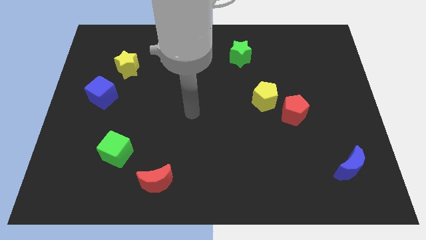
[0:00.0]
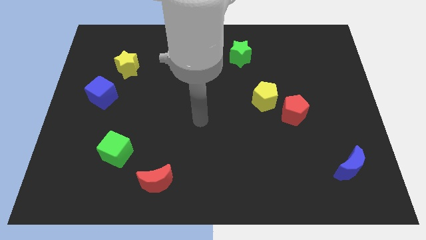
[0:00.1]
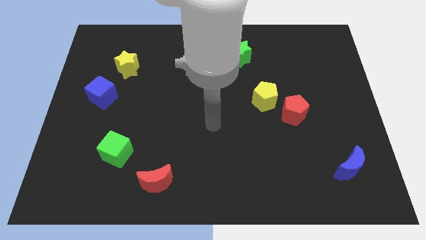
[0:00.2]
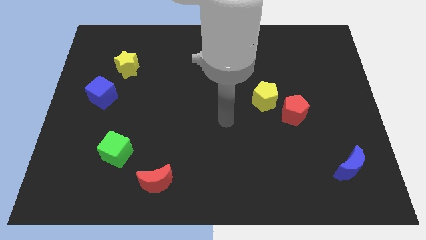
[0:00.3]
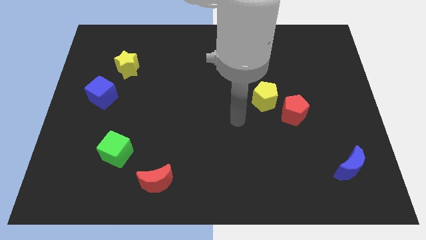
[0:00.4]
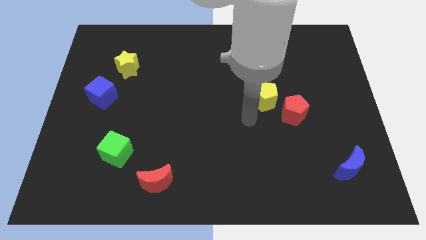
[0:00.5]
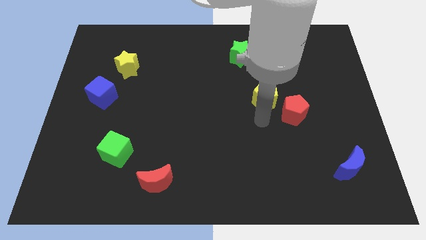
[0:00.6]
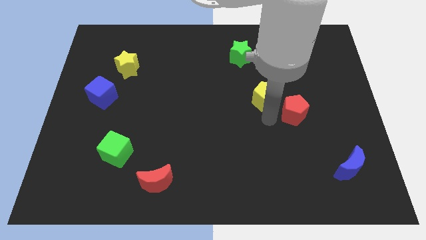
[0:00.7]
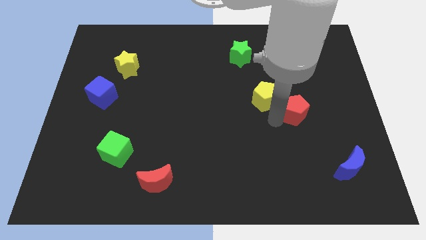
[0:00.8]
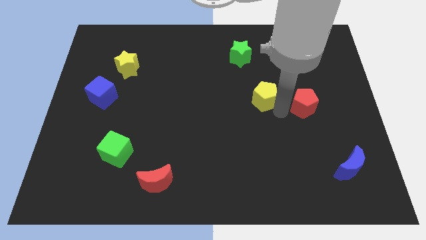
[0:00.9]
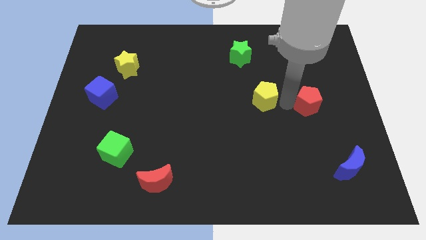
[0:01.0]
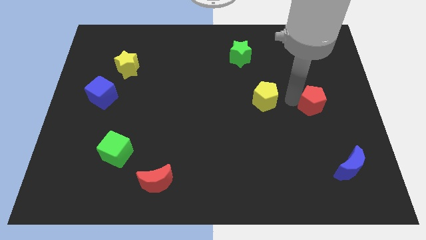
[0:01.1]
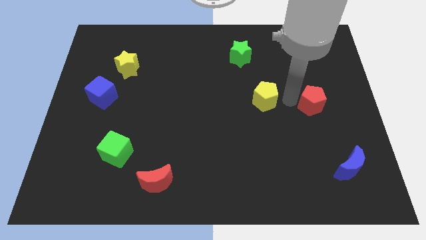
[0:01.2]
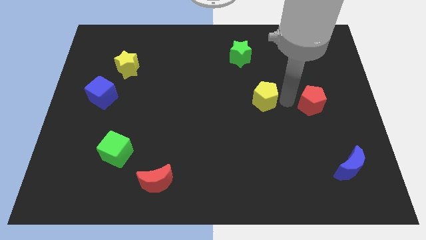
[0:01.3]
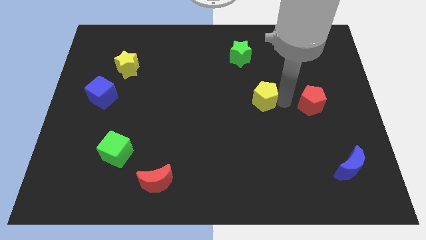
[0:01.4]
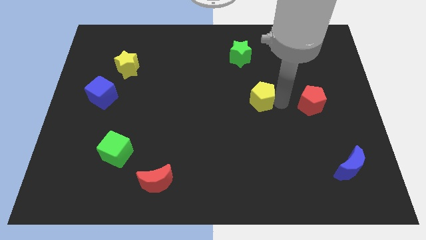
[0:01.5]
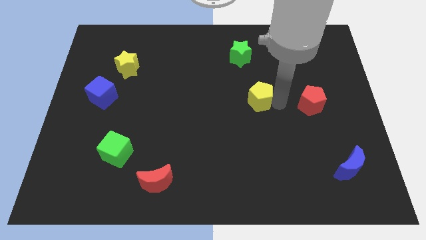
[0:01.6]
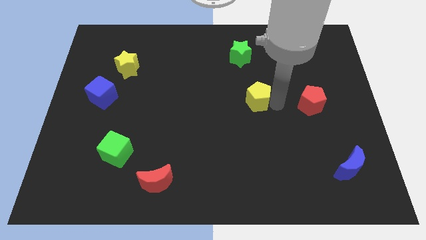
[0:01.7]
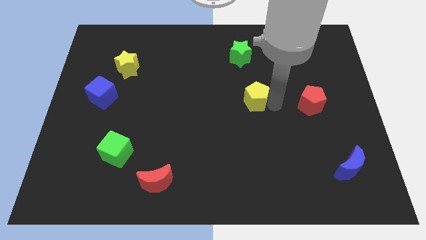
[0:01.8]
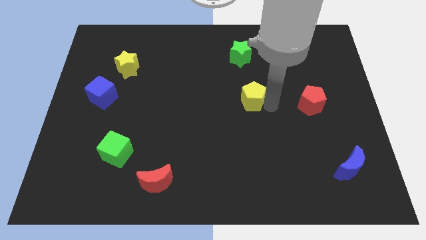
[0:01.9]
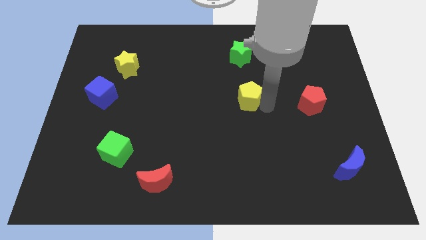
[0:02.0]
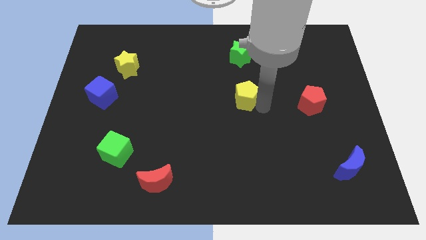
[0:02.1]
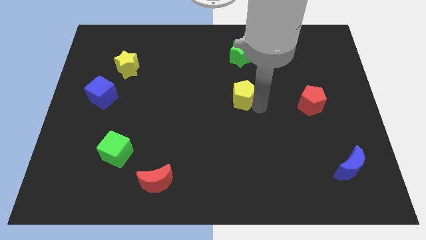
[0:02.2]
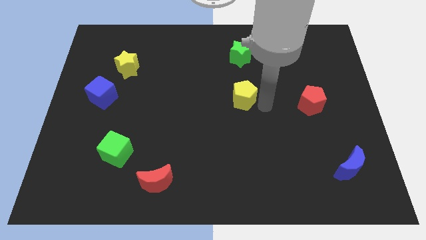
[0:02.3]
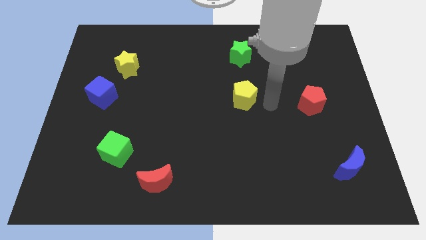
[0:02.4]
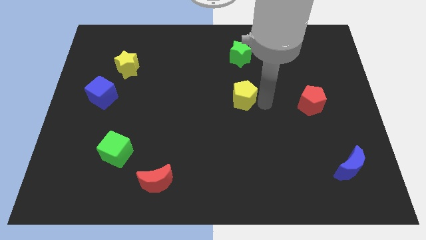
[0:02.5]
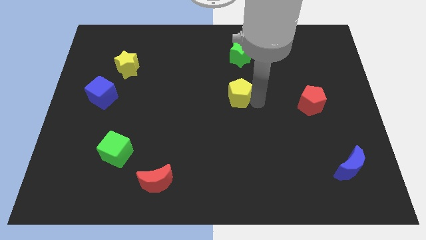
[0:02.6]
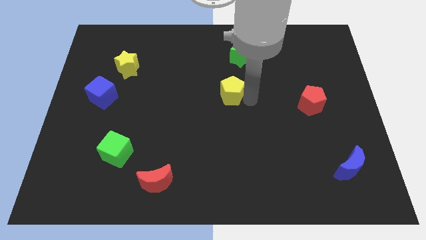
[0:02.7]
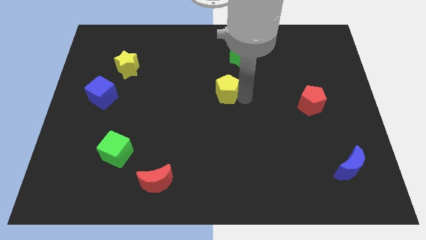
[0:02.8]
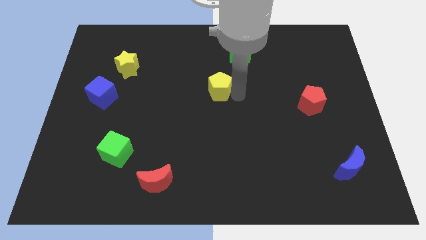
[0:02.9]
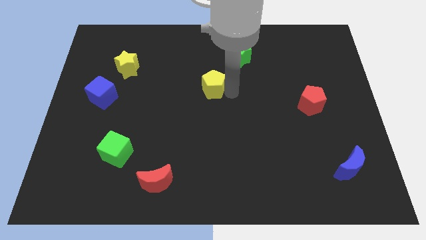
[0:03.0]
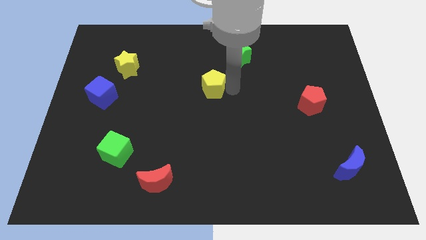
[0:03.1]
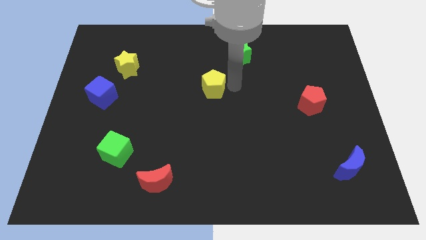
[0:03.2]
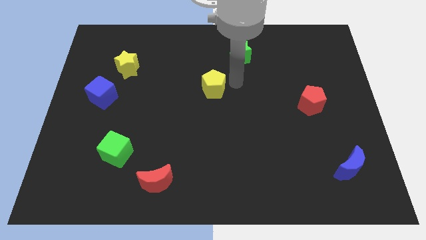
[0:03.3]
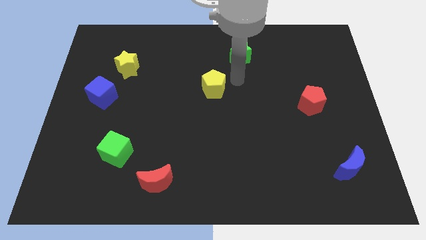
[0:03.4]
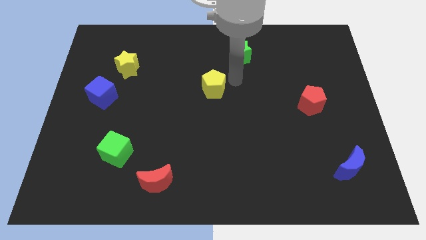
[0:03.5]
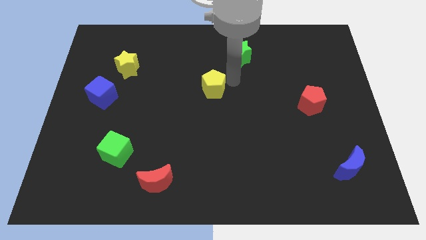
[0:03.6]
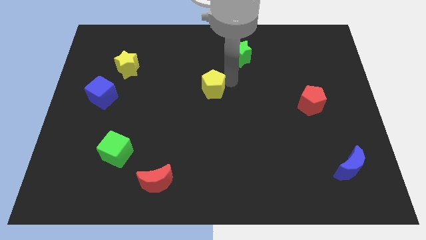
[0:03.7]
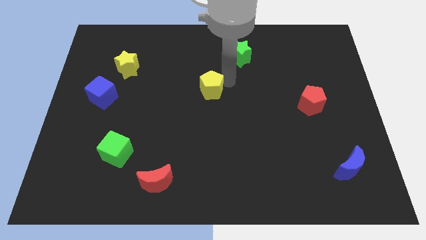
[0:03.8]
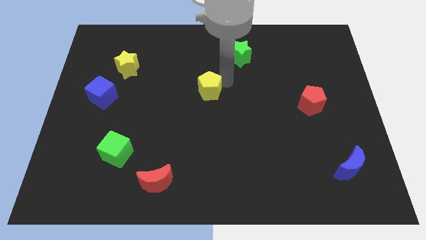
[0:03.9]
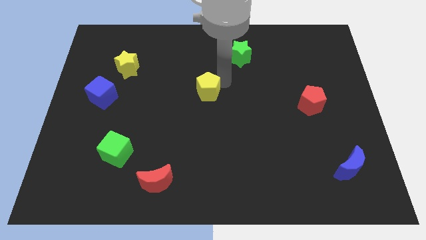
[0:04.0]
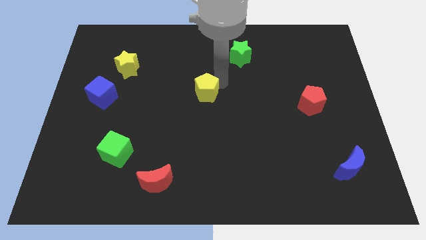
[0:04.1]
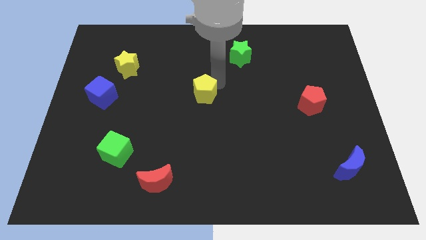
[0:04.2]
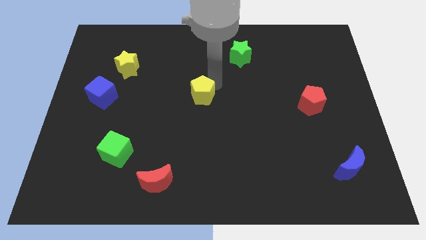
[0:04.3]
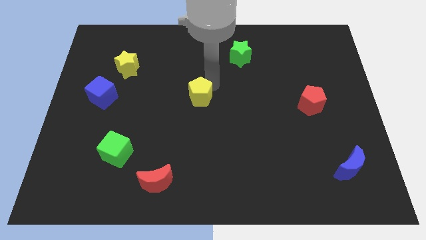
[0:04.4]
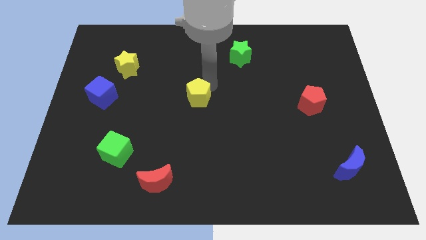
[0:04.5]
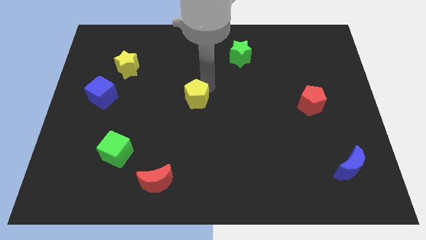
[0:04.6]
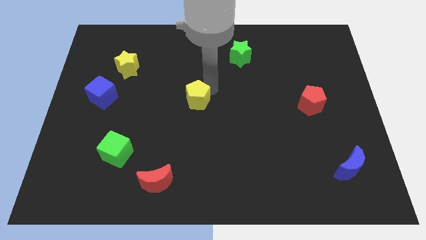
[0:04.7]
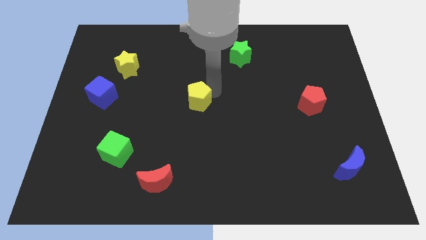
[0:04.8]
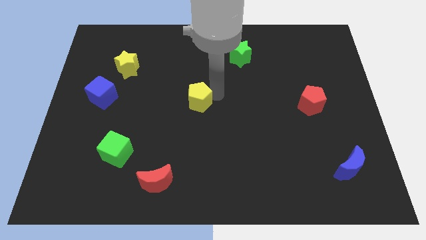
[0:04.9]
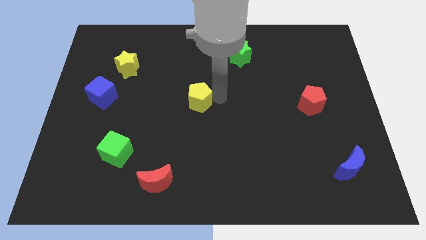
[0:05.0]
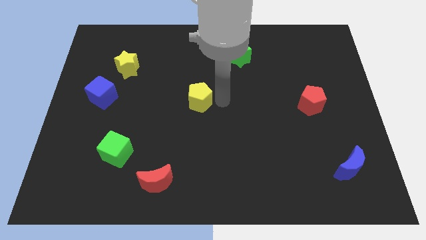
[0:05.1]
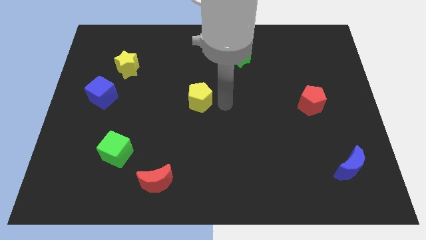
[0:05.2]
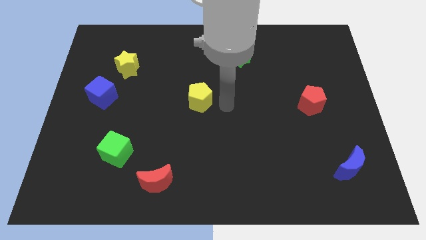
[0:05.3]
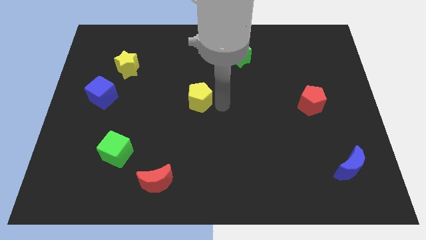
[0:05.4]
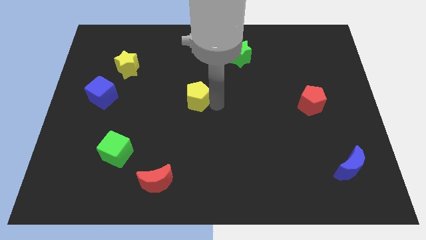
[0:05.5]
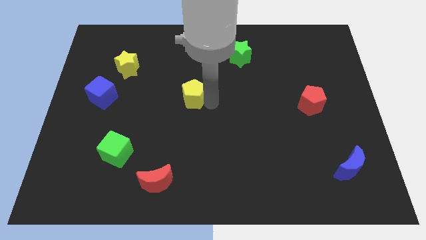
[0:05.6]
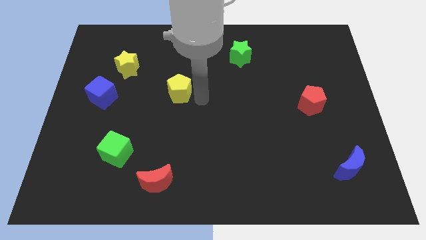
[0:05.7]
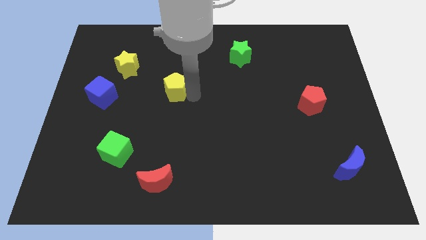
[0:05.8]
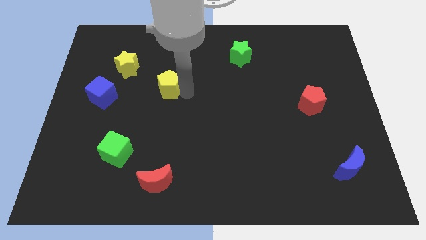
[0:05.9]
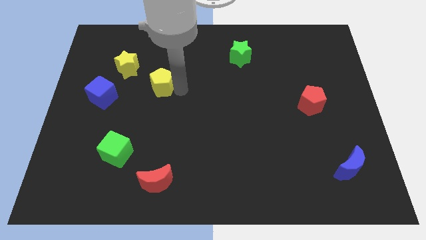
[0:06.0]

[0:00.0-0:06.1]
move the yellow pentagon just right of the blue cube

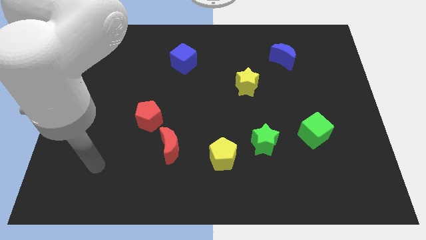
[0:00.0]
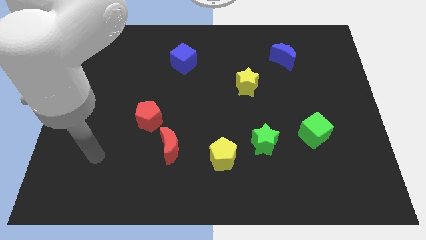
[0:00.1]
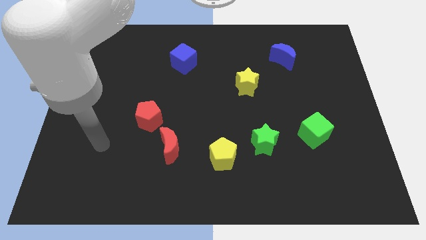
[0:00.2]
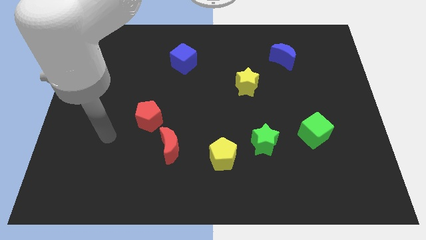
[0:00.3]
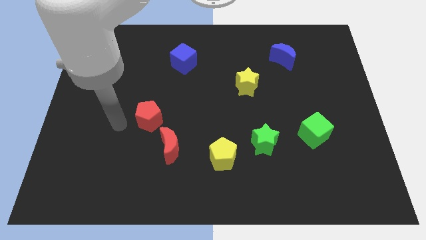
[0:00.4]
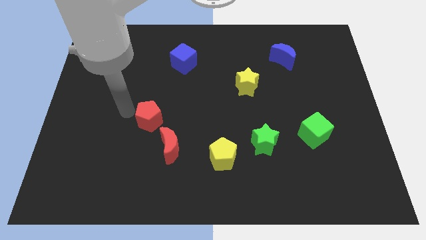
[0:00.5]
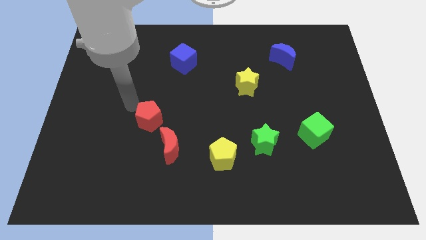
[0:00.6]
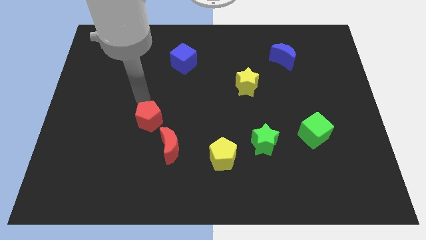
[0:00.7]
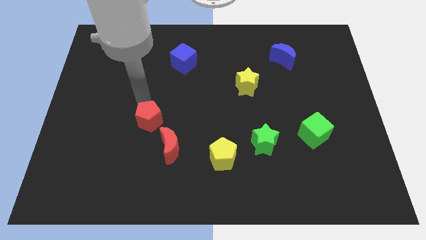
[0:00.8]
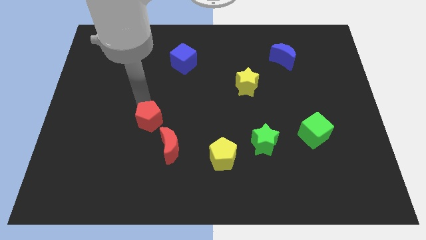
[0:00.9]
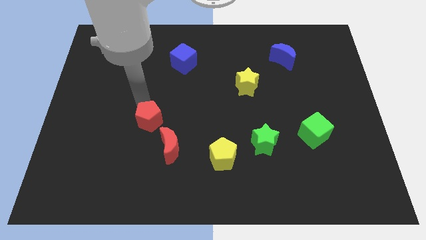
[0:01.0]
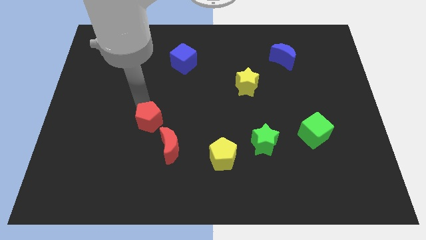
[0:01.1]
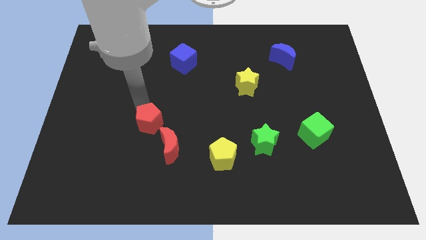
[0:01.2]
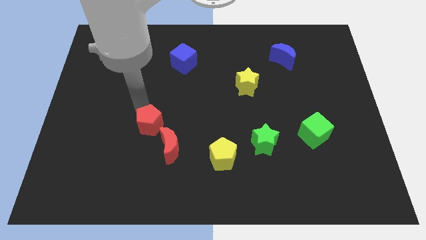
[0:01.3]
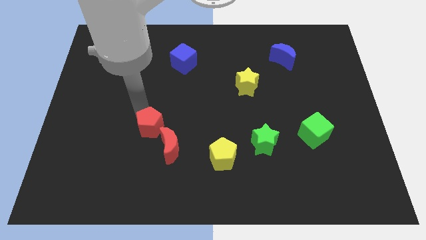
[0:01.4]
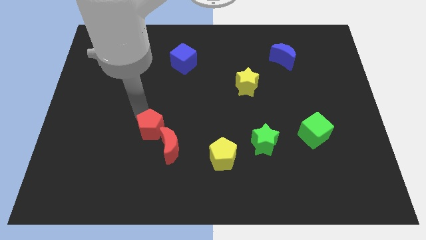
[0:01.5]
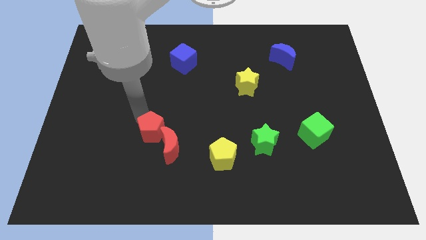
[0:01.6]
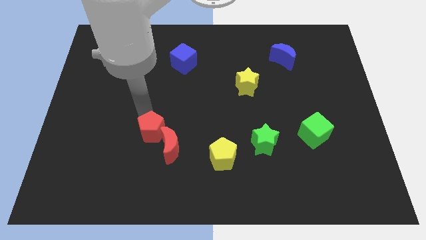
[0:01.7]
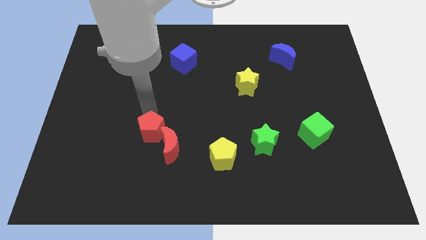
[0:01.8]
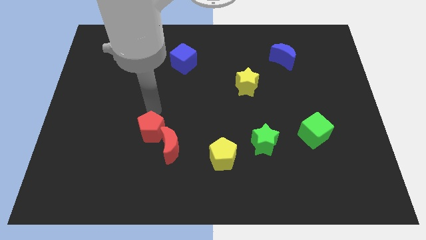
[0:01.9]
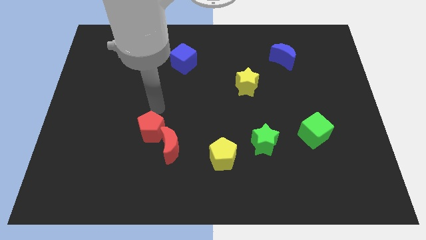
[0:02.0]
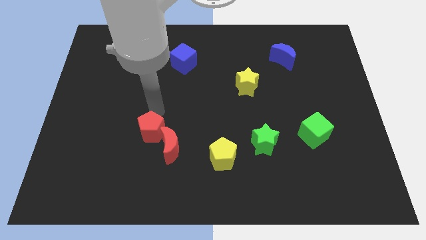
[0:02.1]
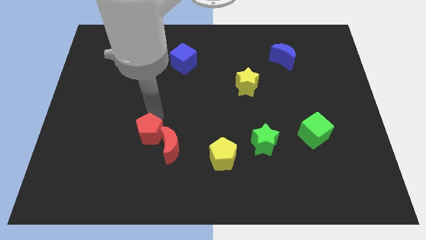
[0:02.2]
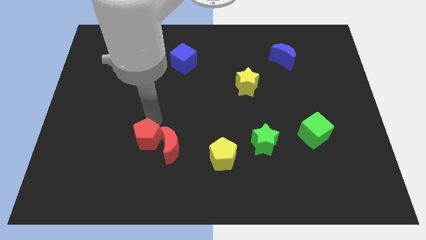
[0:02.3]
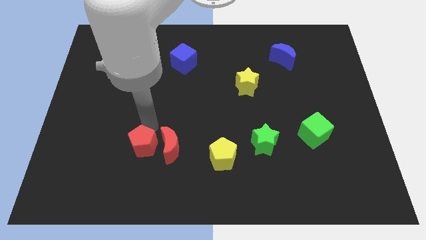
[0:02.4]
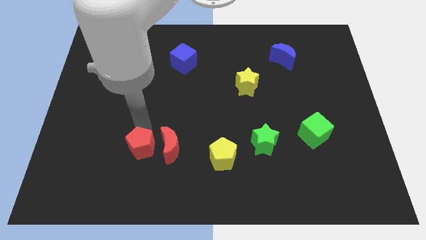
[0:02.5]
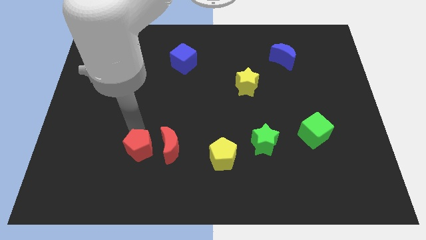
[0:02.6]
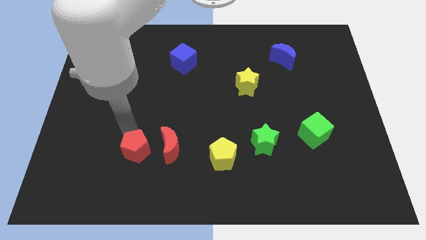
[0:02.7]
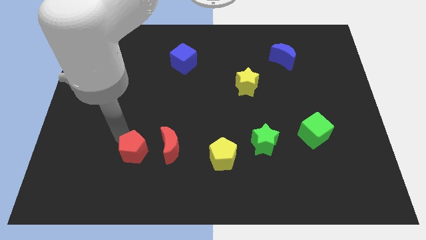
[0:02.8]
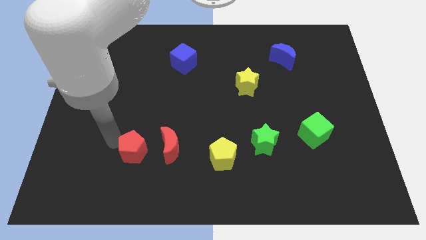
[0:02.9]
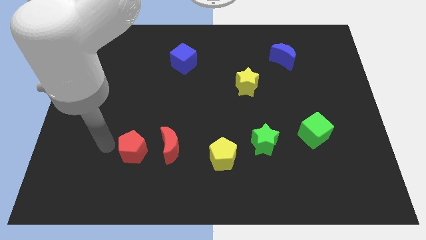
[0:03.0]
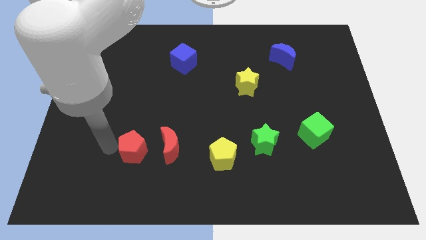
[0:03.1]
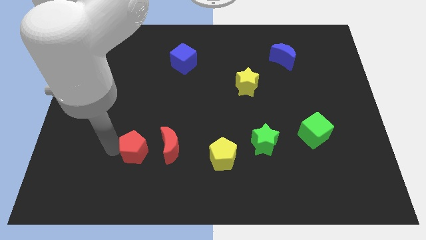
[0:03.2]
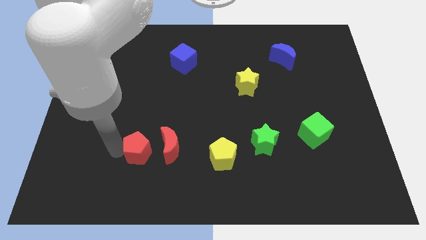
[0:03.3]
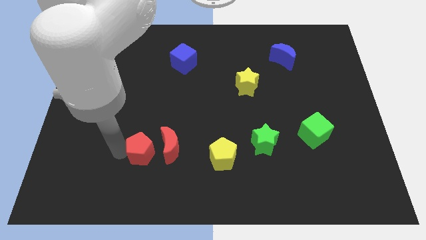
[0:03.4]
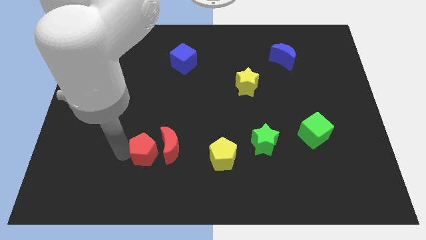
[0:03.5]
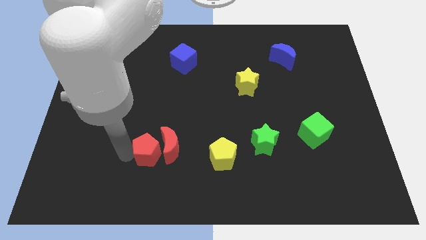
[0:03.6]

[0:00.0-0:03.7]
move the red pentagon to the left side of the yellow pentagon
